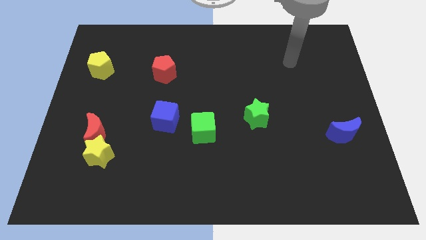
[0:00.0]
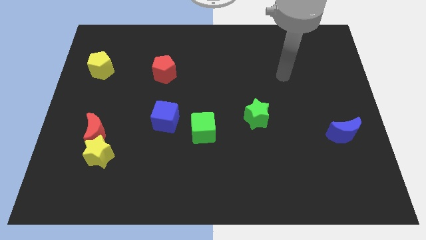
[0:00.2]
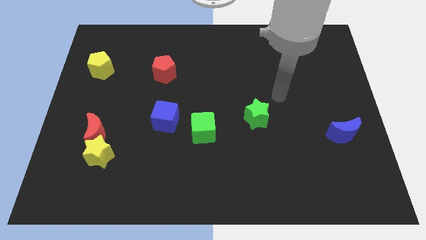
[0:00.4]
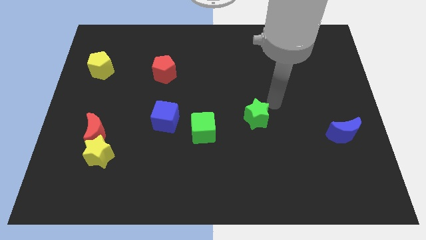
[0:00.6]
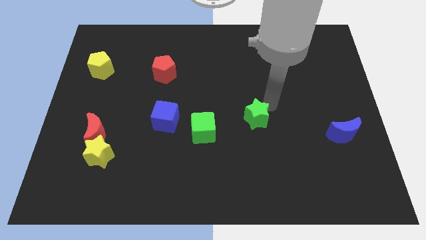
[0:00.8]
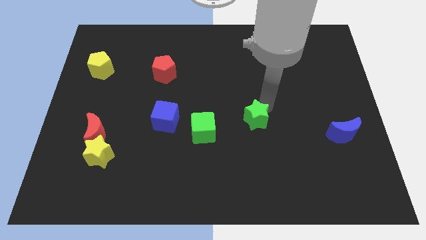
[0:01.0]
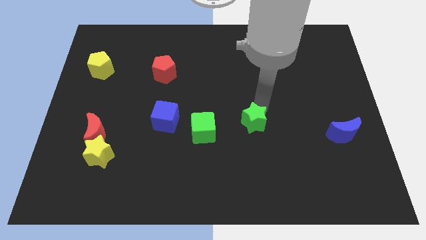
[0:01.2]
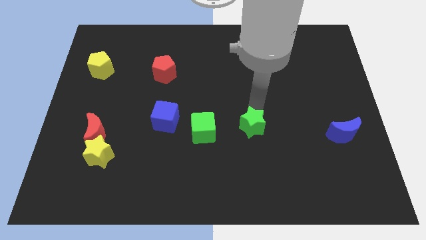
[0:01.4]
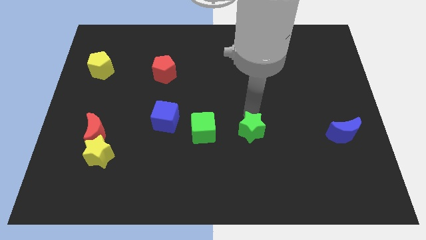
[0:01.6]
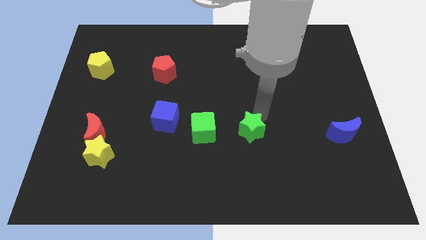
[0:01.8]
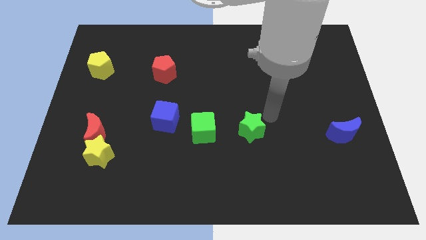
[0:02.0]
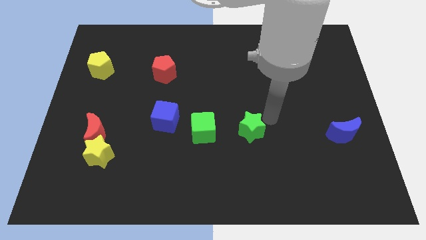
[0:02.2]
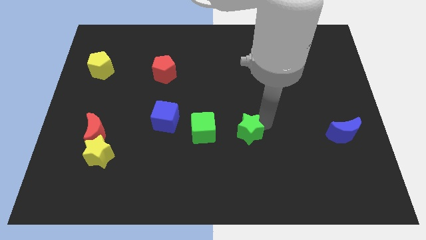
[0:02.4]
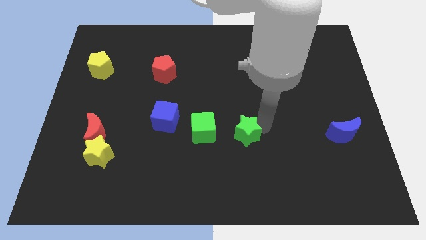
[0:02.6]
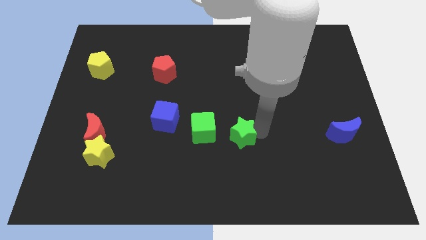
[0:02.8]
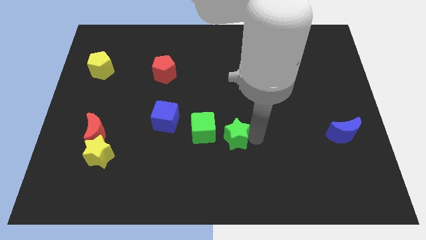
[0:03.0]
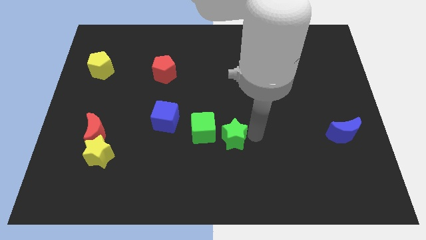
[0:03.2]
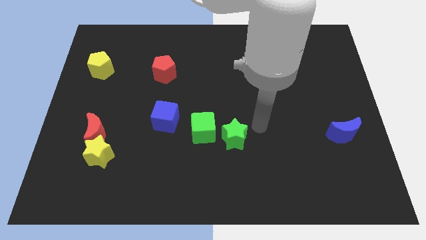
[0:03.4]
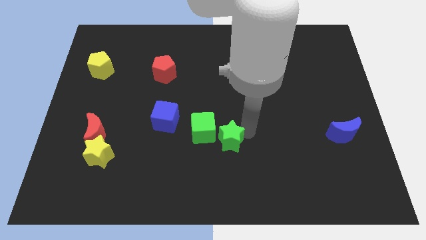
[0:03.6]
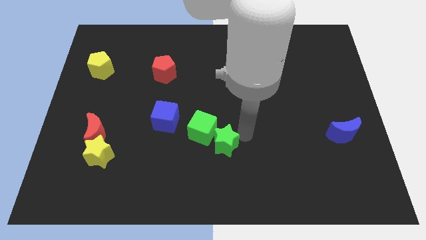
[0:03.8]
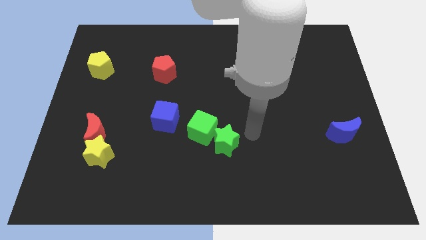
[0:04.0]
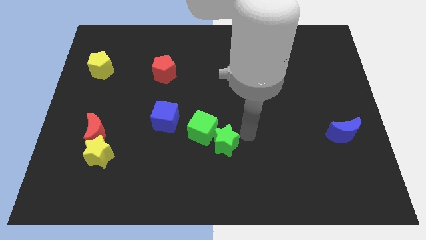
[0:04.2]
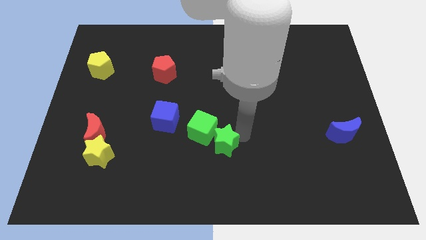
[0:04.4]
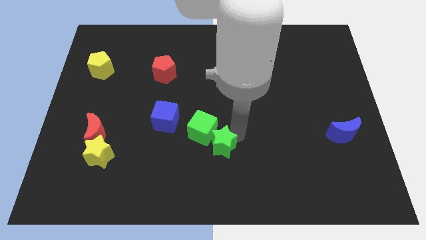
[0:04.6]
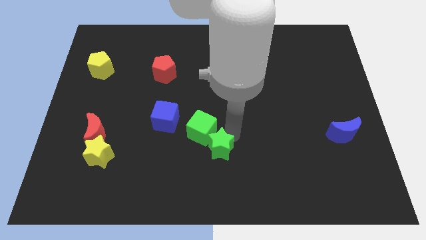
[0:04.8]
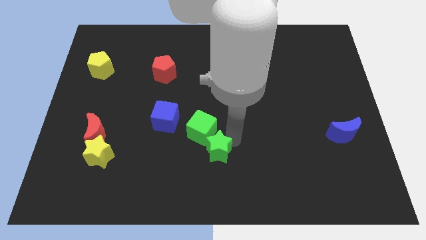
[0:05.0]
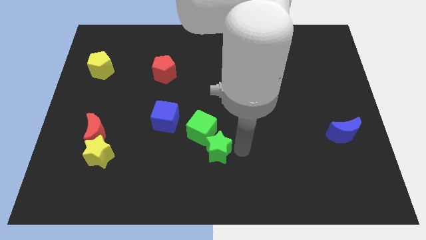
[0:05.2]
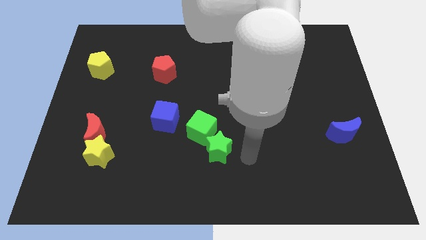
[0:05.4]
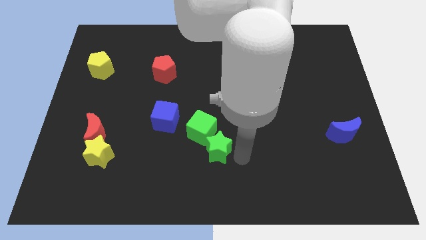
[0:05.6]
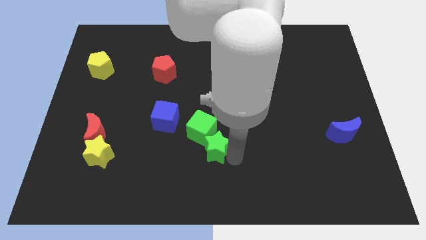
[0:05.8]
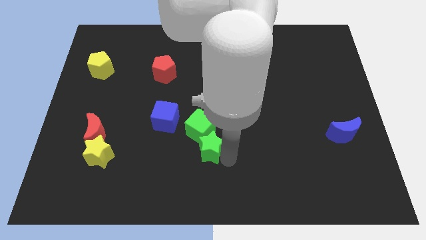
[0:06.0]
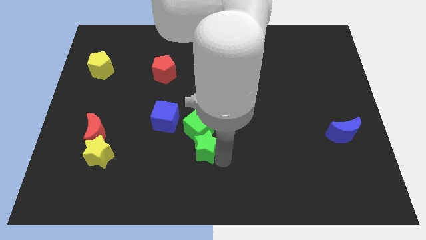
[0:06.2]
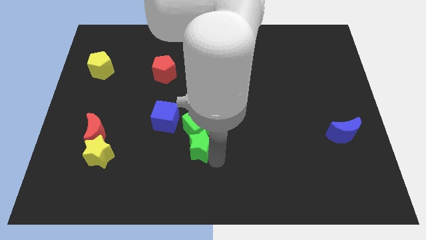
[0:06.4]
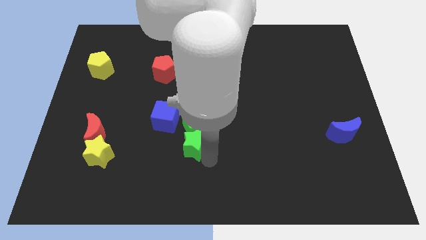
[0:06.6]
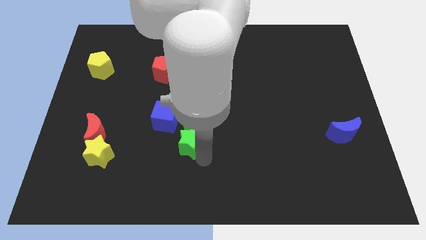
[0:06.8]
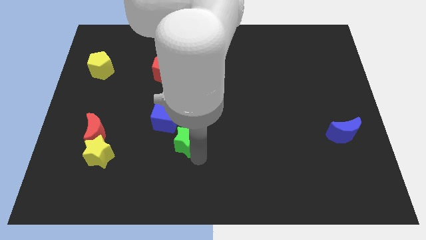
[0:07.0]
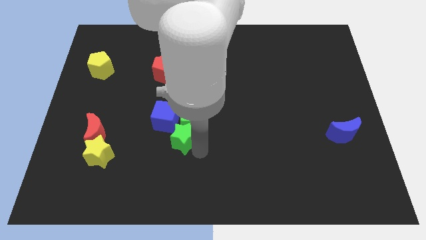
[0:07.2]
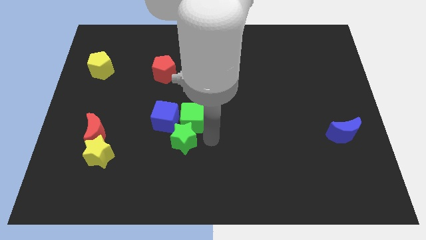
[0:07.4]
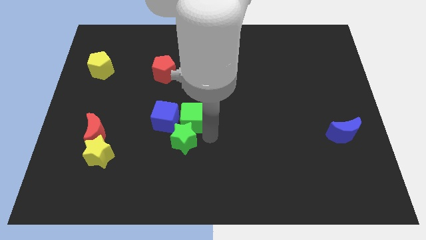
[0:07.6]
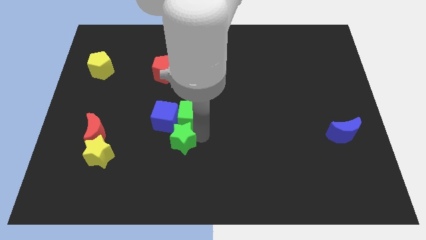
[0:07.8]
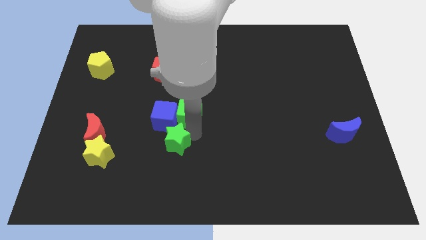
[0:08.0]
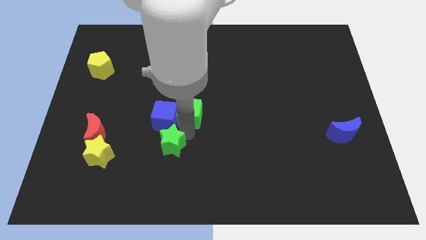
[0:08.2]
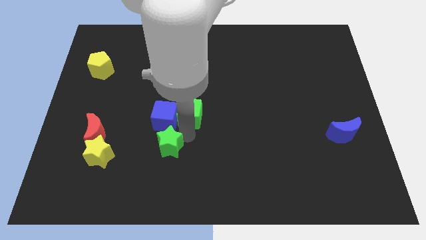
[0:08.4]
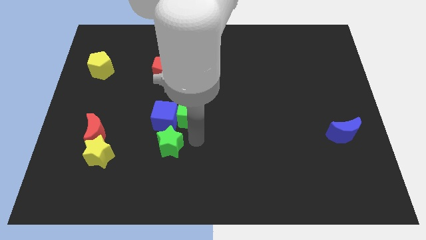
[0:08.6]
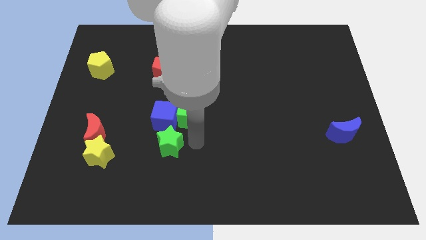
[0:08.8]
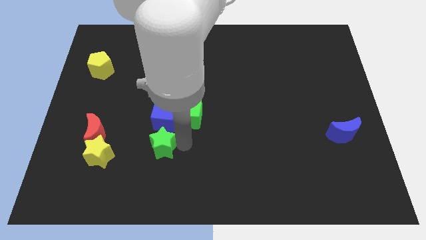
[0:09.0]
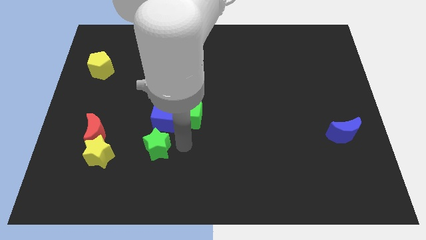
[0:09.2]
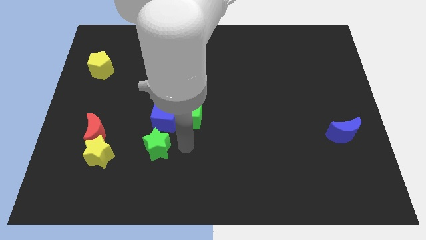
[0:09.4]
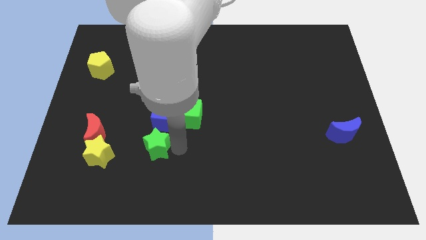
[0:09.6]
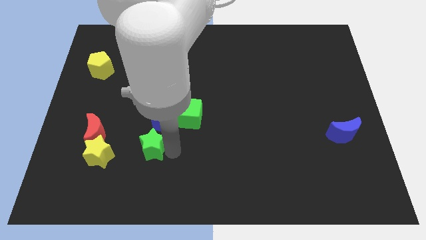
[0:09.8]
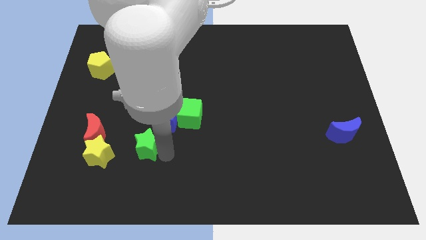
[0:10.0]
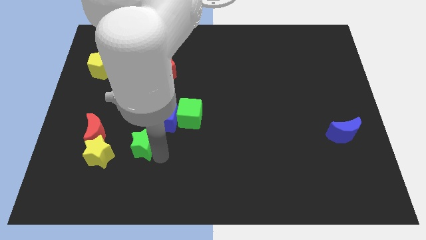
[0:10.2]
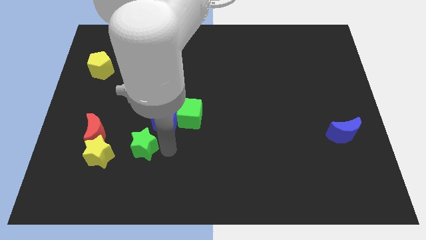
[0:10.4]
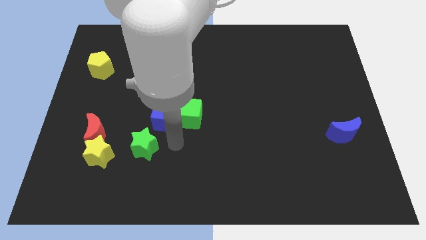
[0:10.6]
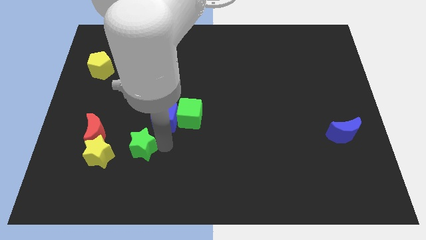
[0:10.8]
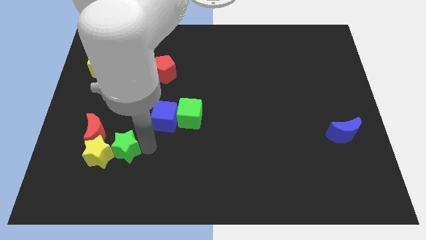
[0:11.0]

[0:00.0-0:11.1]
move the green star next to the yellow star

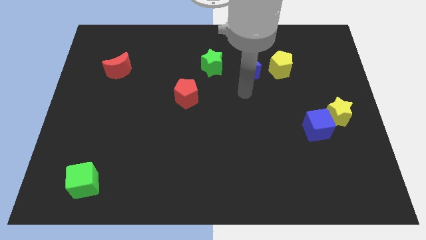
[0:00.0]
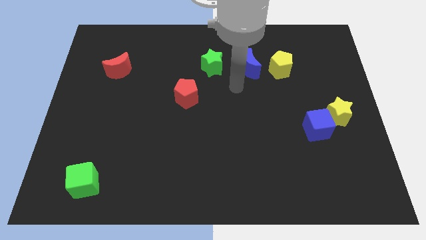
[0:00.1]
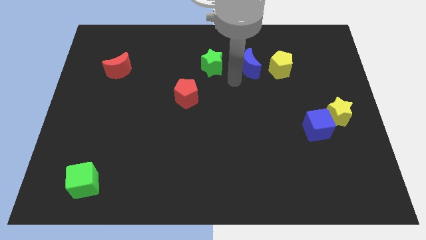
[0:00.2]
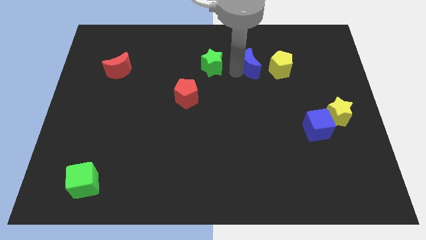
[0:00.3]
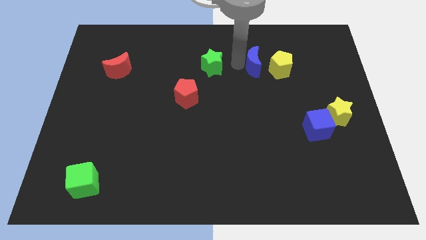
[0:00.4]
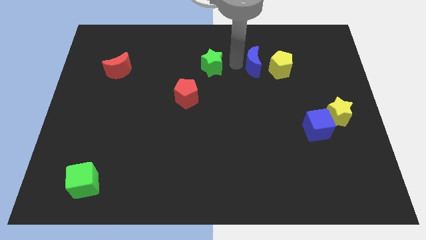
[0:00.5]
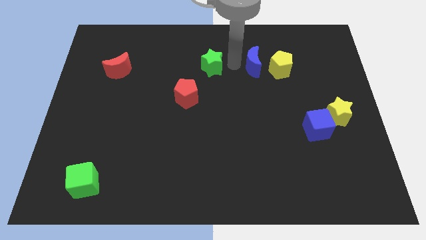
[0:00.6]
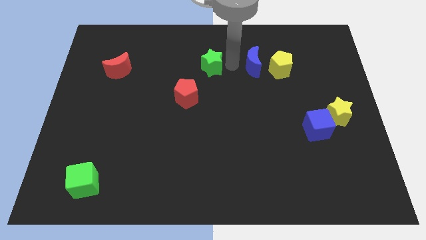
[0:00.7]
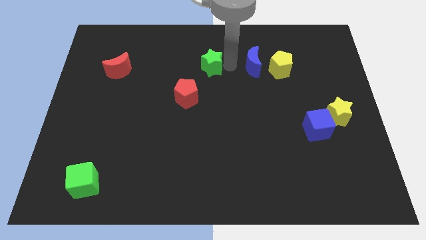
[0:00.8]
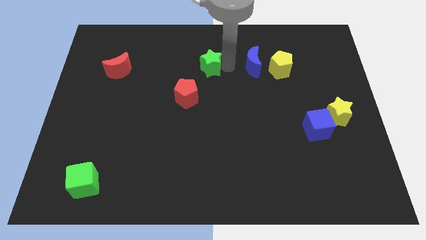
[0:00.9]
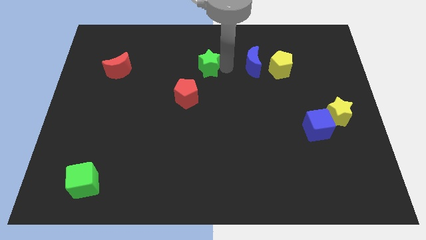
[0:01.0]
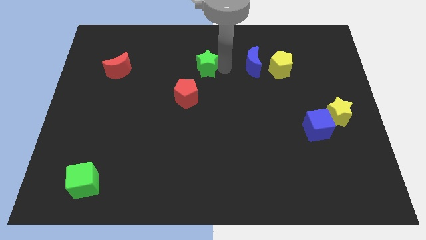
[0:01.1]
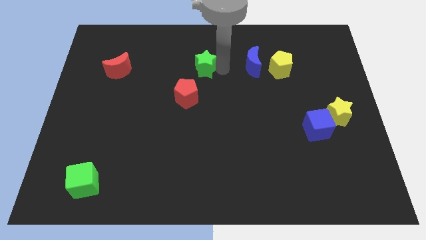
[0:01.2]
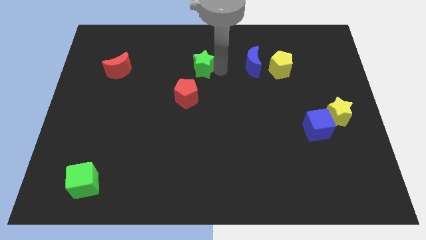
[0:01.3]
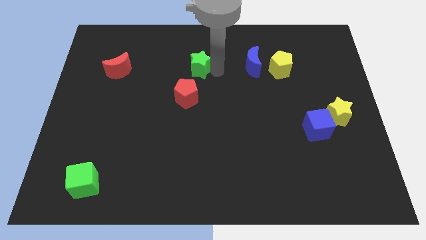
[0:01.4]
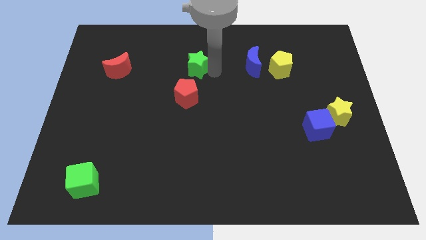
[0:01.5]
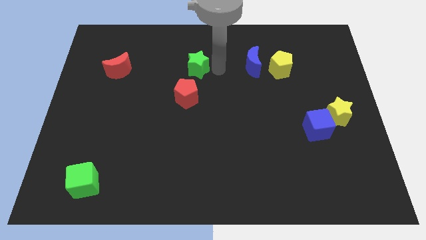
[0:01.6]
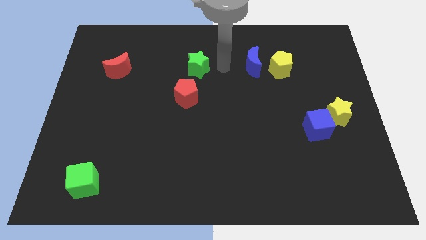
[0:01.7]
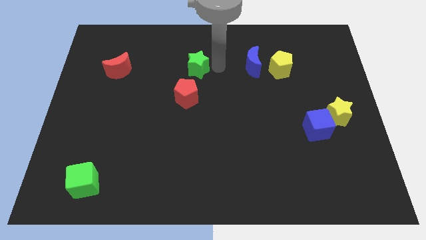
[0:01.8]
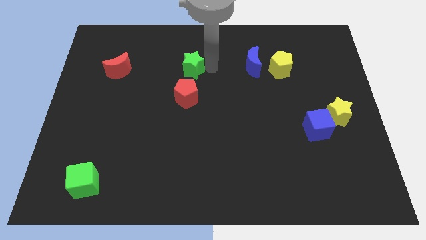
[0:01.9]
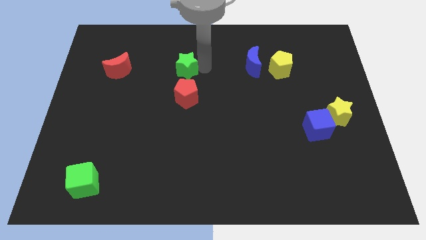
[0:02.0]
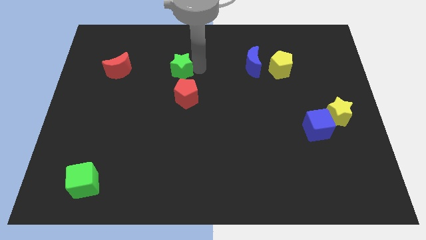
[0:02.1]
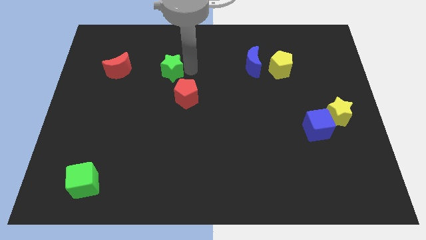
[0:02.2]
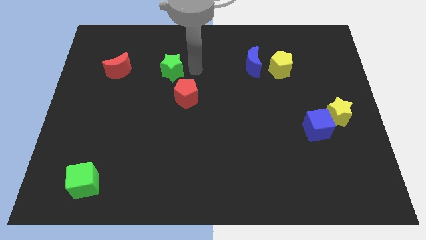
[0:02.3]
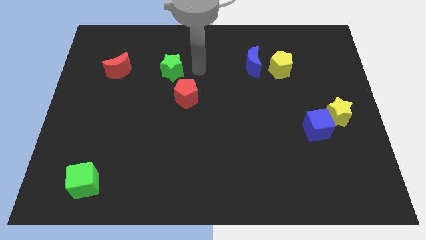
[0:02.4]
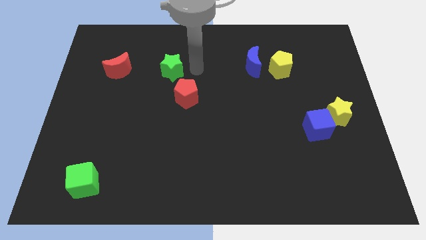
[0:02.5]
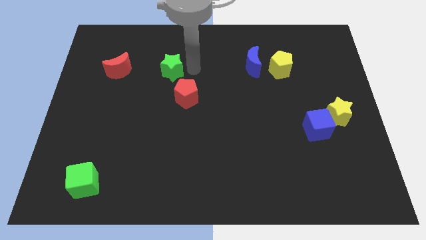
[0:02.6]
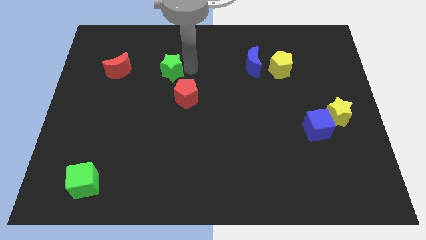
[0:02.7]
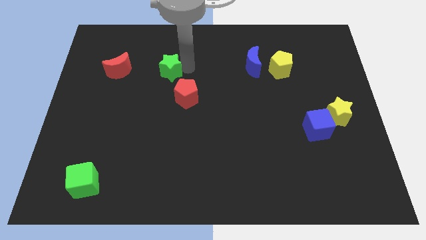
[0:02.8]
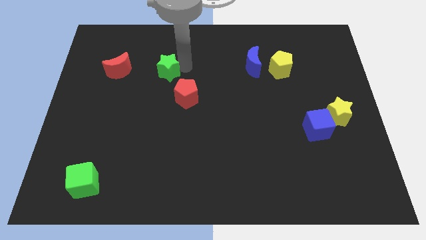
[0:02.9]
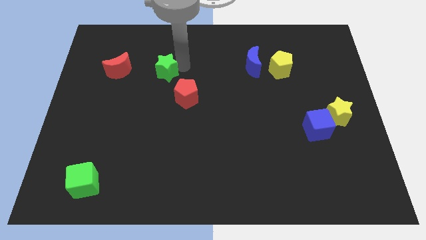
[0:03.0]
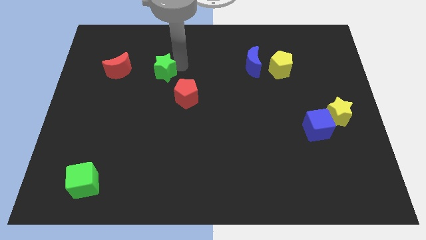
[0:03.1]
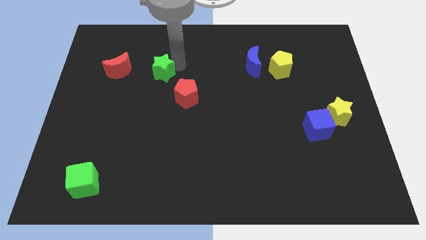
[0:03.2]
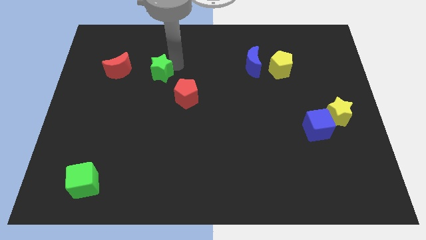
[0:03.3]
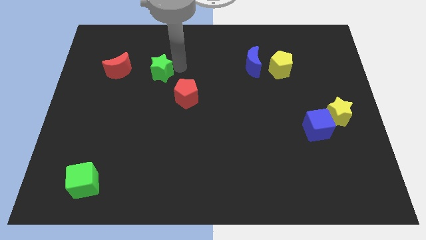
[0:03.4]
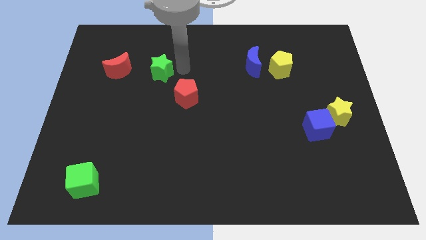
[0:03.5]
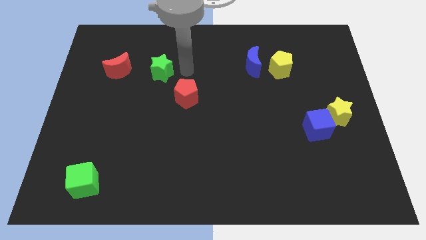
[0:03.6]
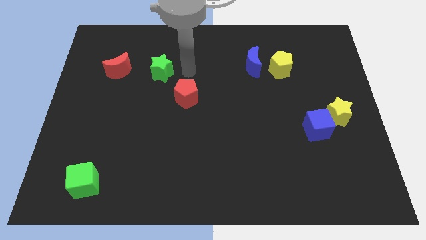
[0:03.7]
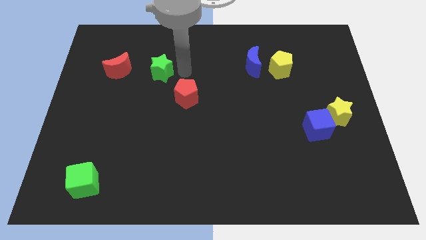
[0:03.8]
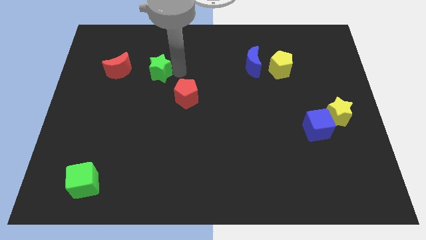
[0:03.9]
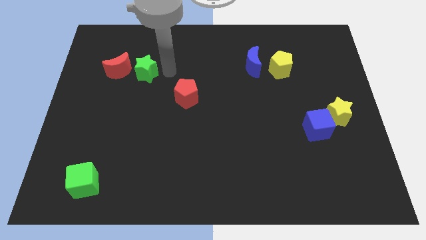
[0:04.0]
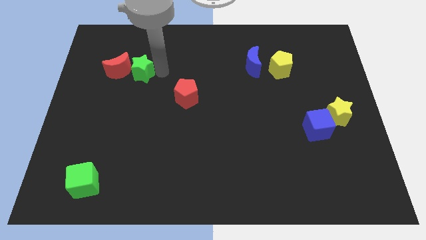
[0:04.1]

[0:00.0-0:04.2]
move the green star next to the red moon
